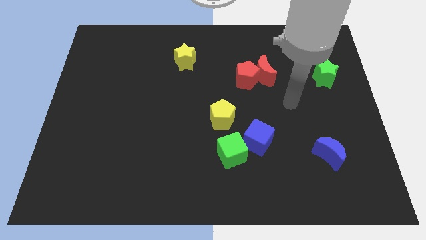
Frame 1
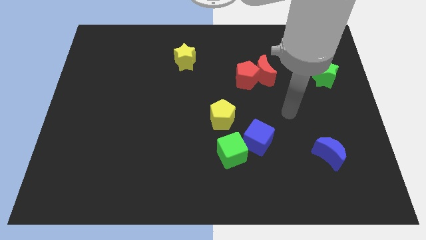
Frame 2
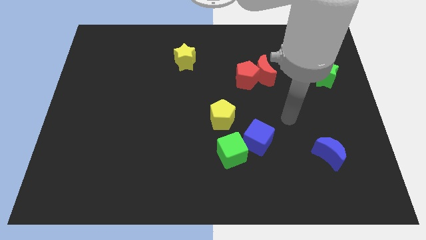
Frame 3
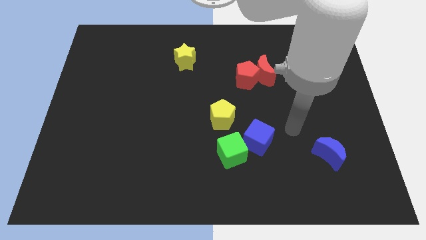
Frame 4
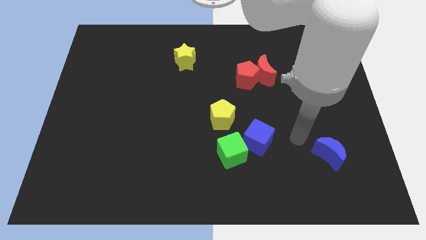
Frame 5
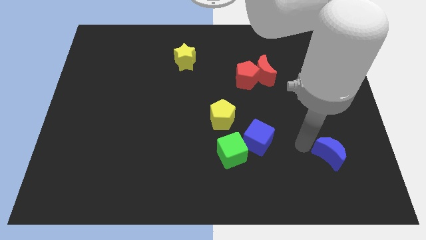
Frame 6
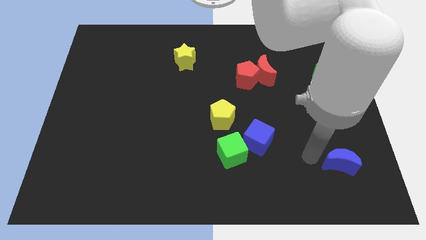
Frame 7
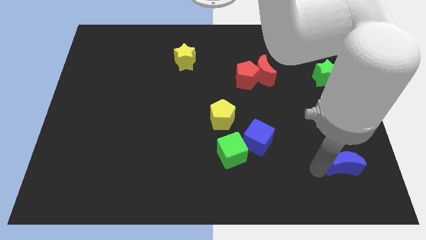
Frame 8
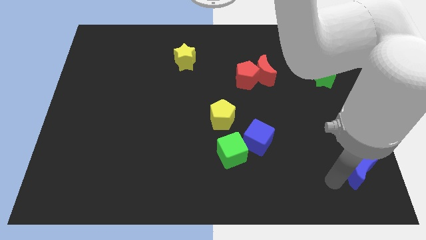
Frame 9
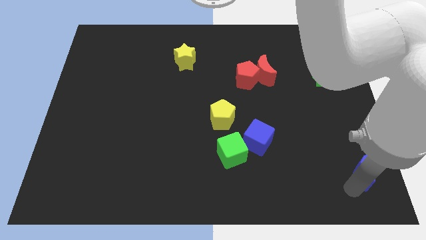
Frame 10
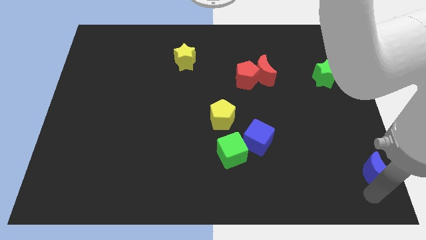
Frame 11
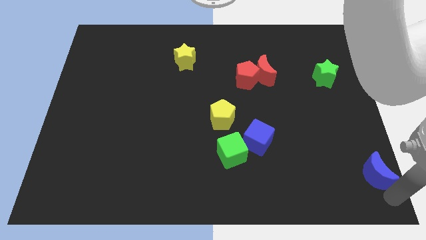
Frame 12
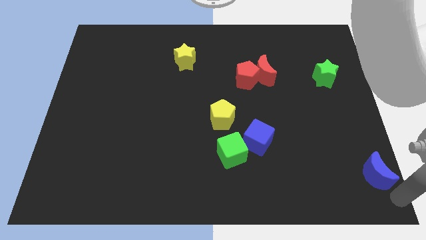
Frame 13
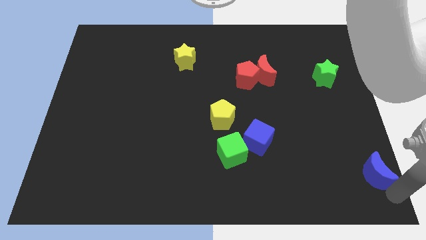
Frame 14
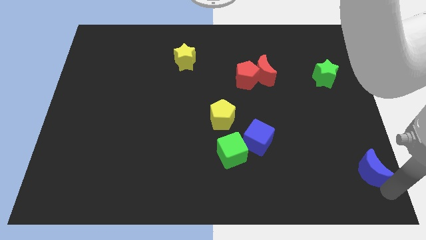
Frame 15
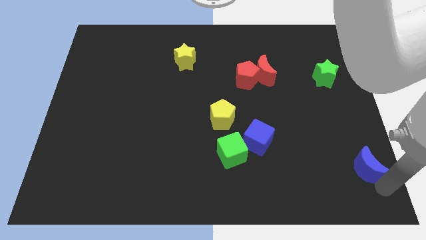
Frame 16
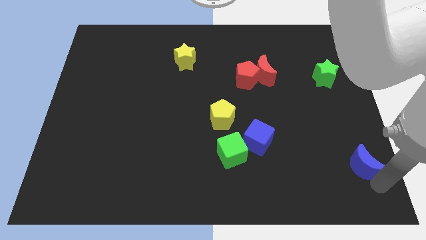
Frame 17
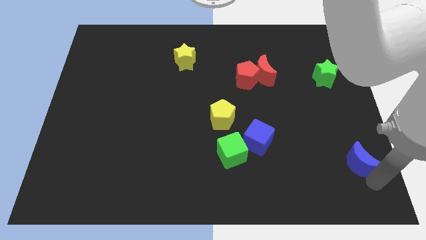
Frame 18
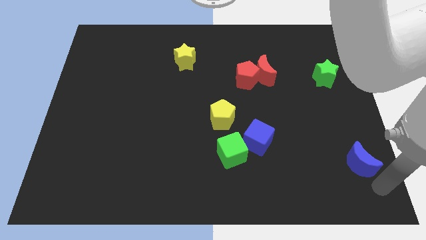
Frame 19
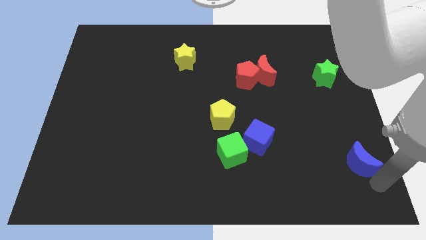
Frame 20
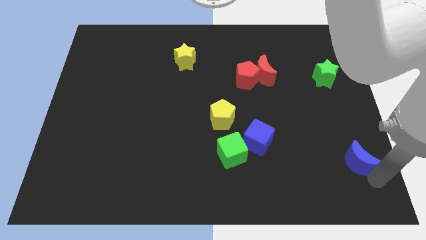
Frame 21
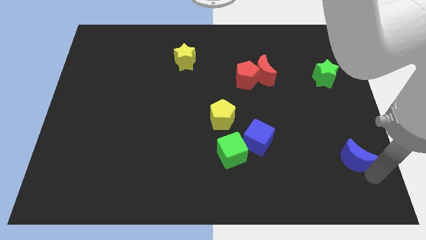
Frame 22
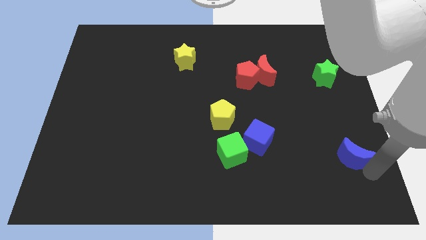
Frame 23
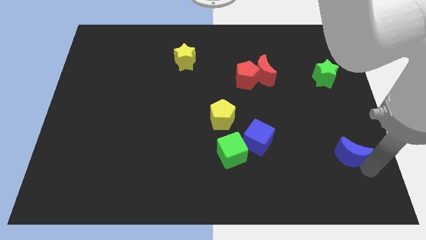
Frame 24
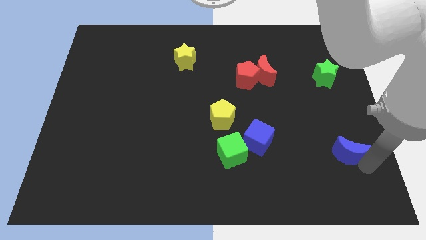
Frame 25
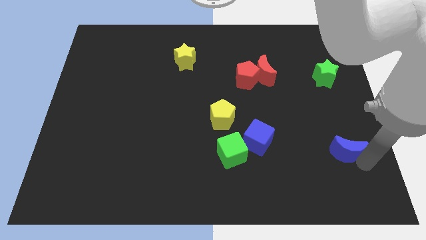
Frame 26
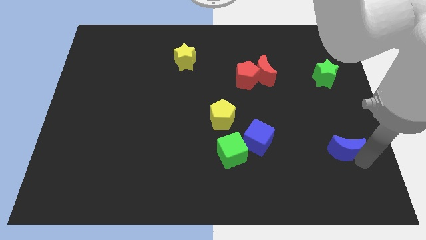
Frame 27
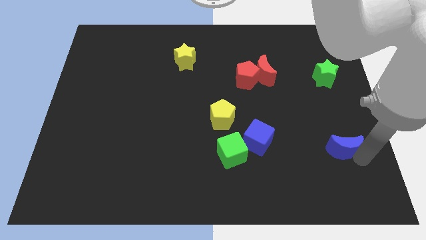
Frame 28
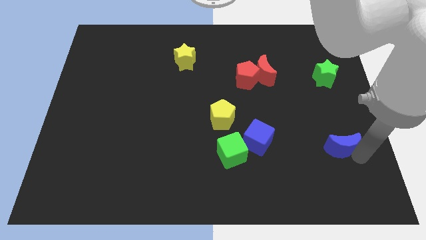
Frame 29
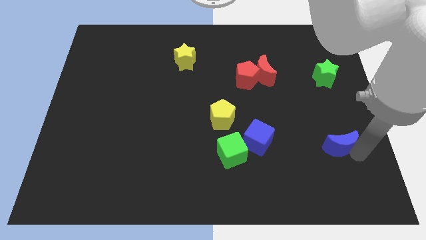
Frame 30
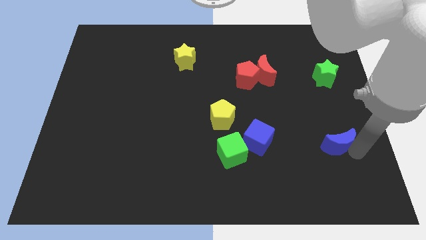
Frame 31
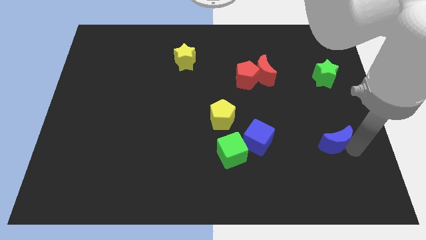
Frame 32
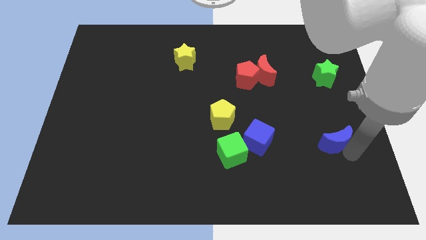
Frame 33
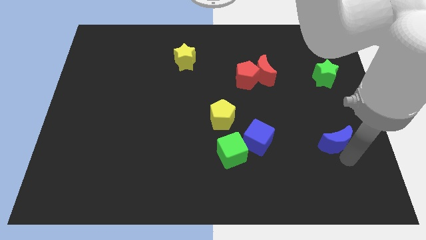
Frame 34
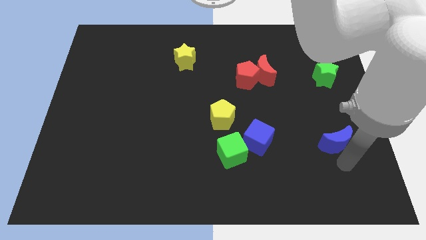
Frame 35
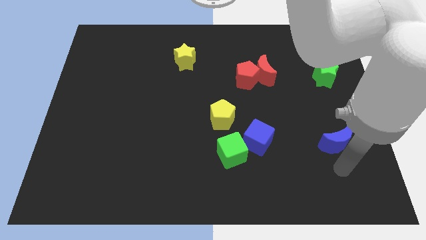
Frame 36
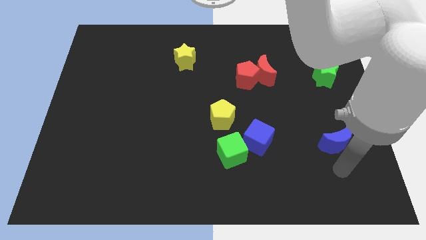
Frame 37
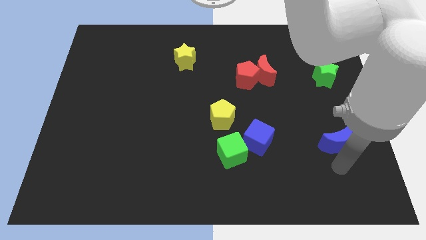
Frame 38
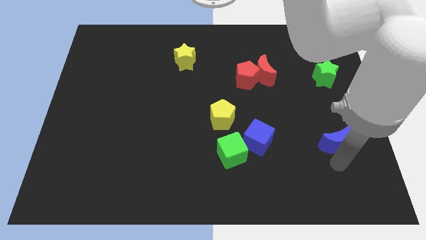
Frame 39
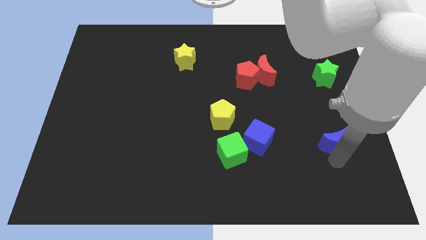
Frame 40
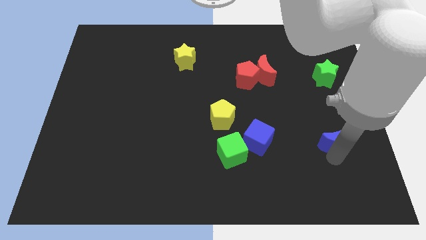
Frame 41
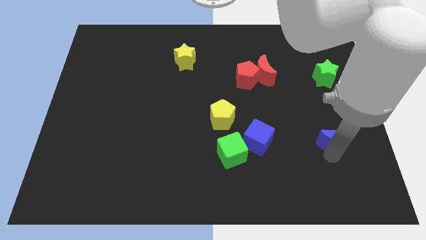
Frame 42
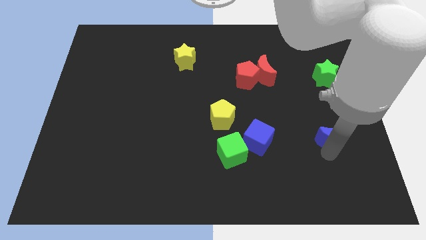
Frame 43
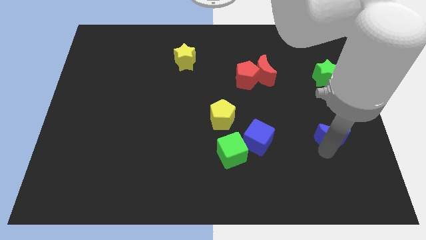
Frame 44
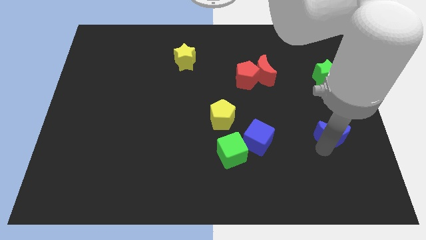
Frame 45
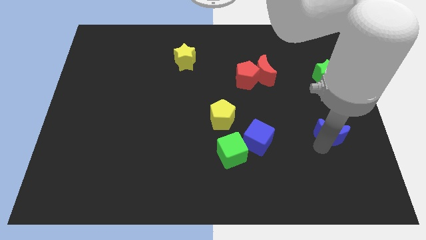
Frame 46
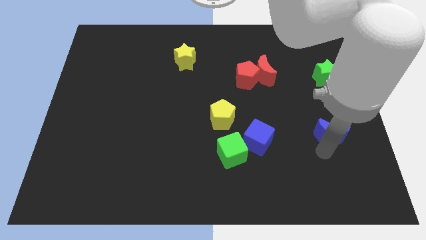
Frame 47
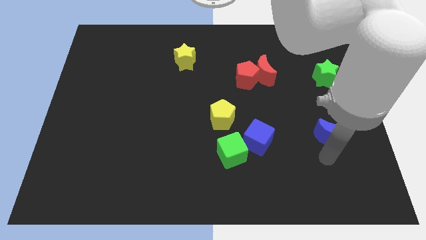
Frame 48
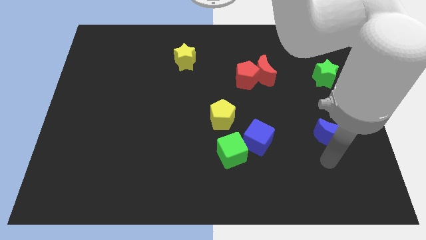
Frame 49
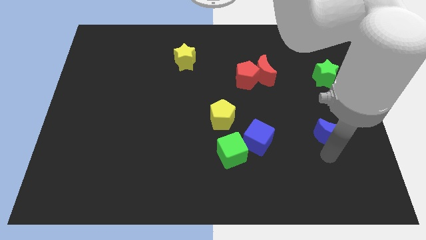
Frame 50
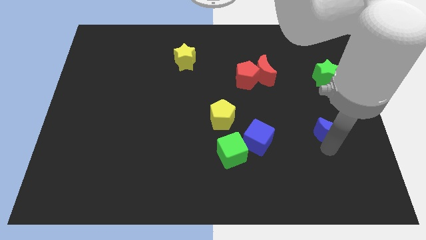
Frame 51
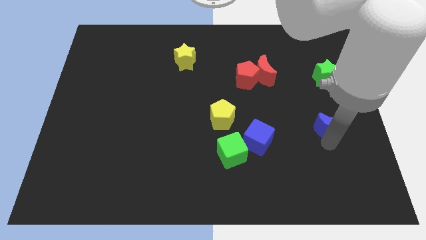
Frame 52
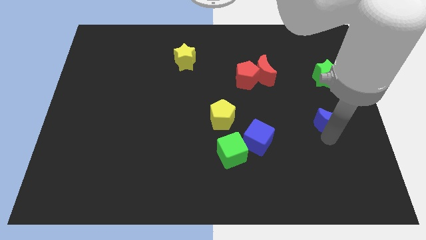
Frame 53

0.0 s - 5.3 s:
move the blue moon somewhat up

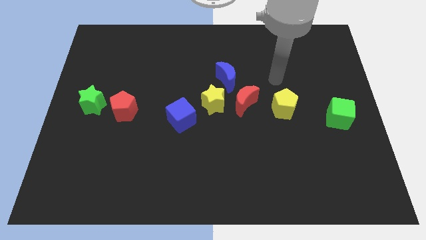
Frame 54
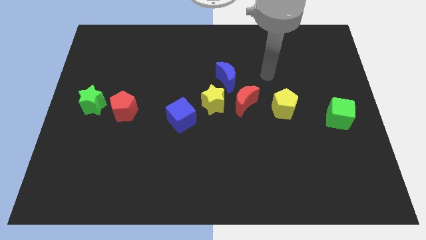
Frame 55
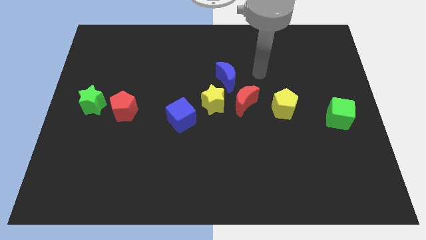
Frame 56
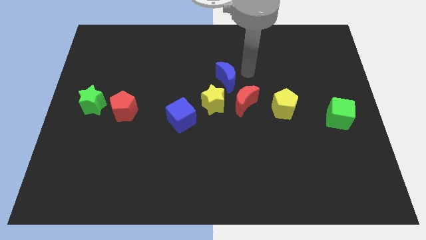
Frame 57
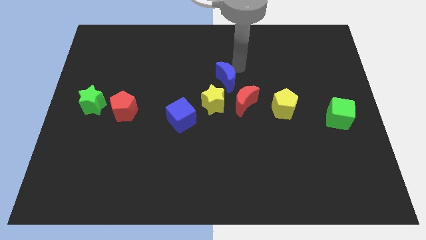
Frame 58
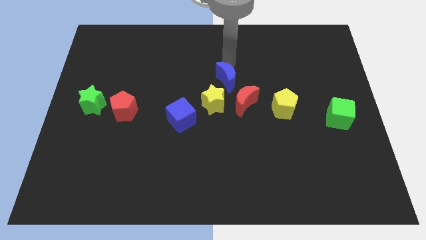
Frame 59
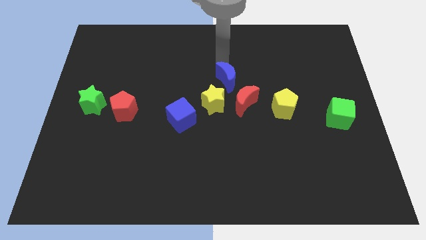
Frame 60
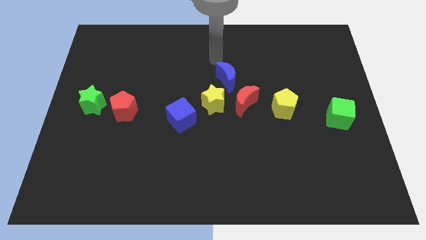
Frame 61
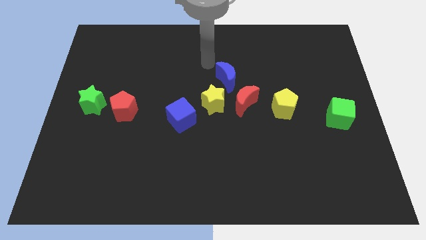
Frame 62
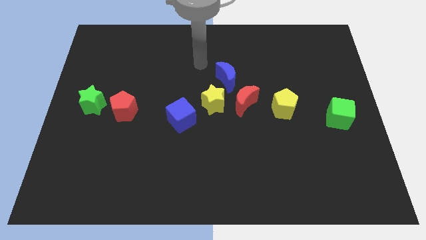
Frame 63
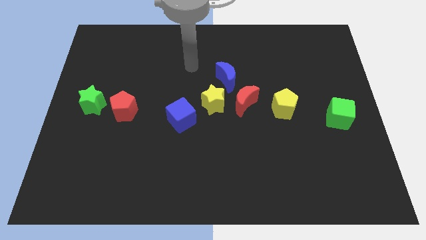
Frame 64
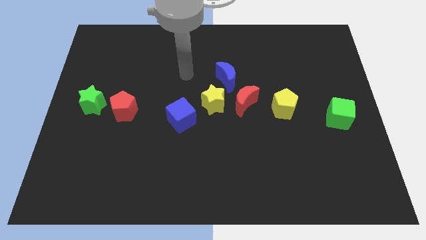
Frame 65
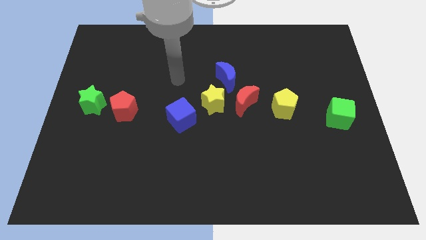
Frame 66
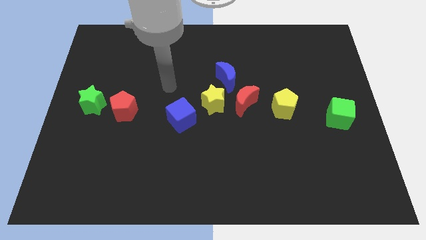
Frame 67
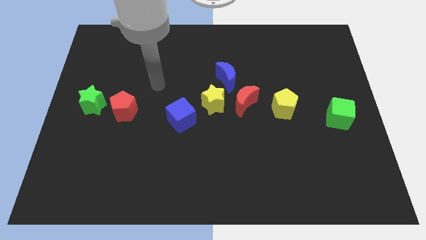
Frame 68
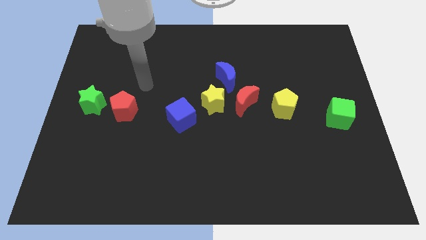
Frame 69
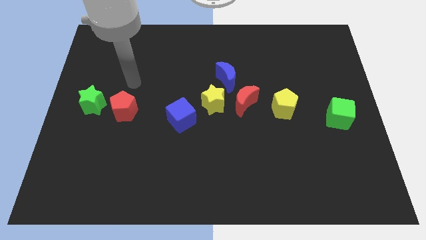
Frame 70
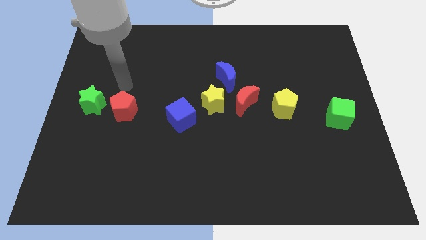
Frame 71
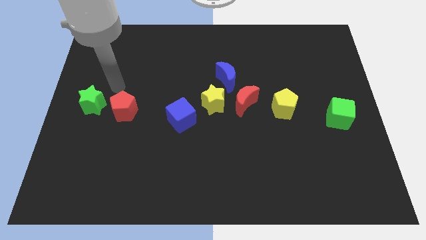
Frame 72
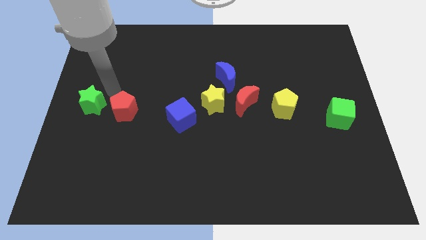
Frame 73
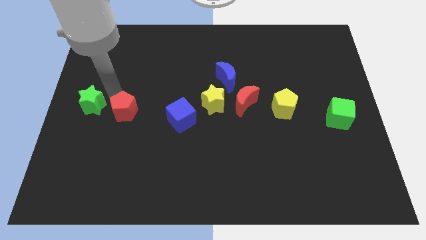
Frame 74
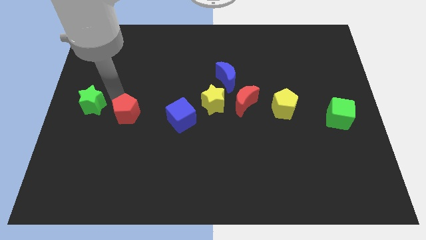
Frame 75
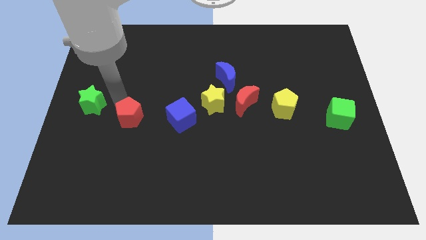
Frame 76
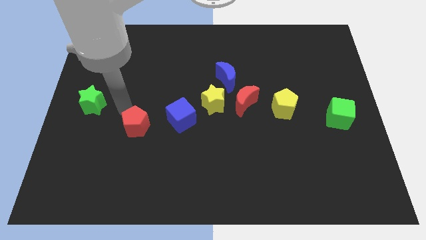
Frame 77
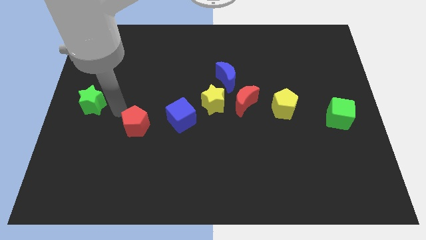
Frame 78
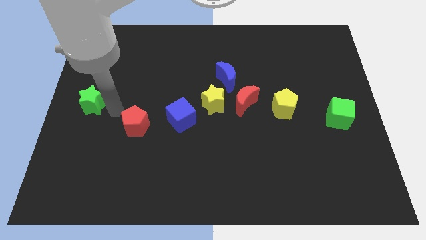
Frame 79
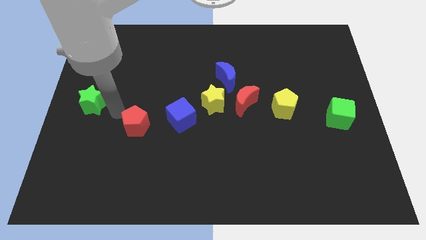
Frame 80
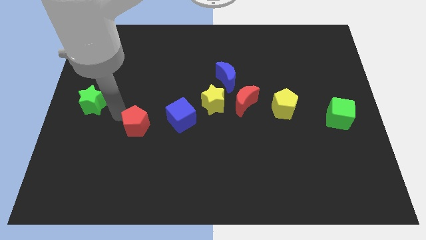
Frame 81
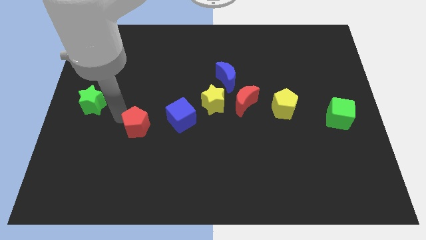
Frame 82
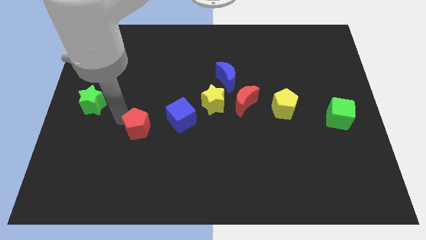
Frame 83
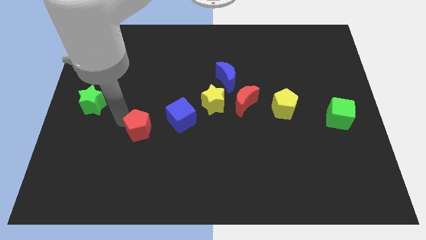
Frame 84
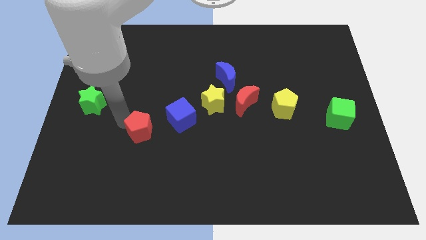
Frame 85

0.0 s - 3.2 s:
slide the red pentagon diagonally down and right somewhat
